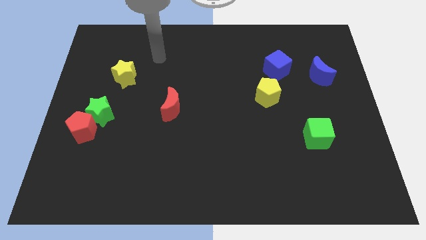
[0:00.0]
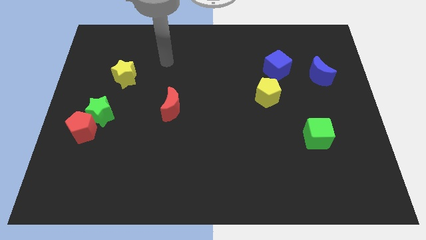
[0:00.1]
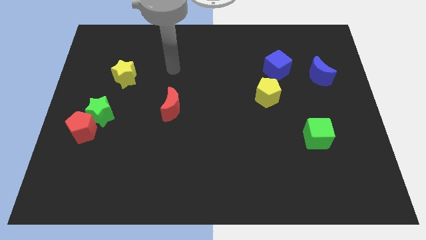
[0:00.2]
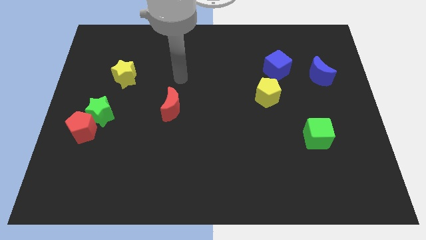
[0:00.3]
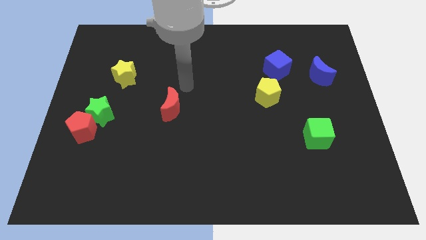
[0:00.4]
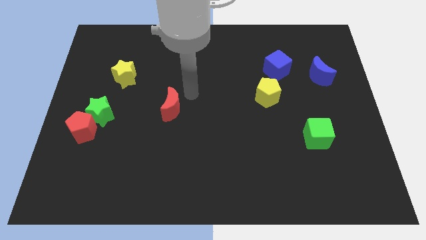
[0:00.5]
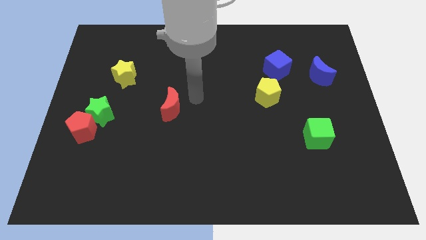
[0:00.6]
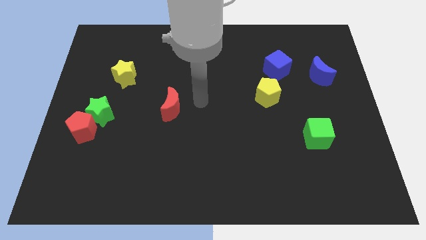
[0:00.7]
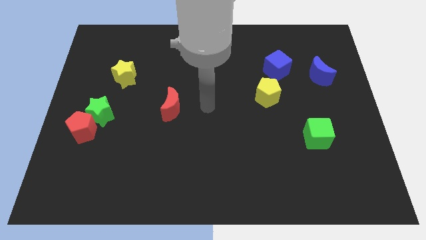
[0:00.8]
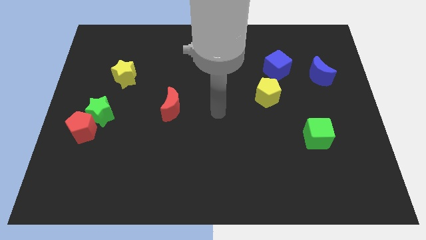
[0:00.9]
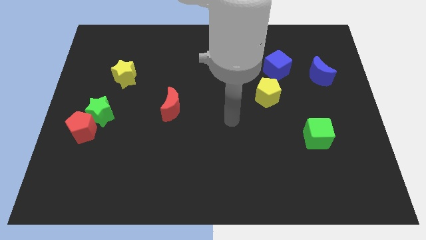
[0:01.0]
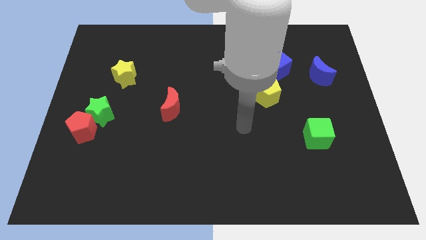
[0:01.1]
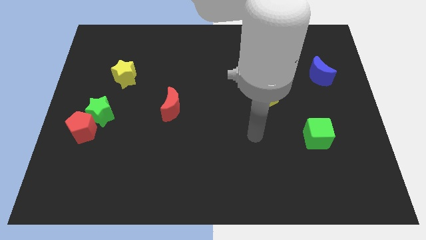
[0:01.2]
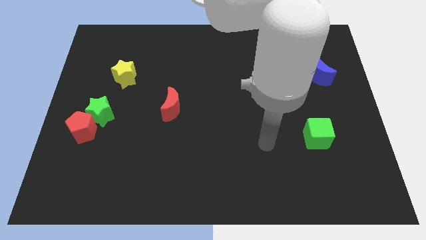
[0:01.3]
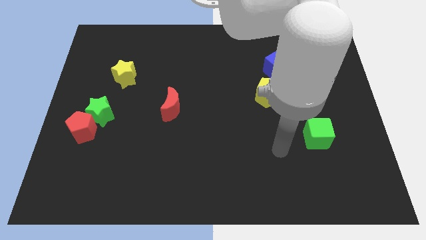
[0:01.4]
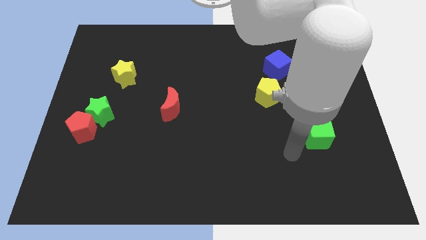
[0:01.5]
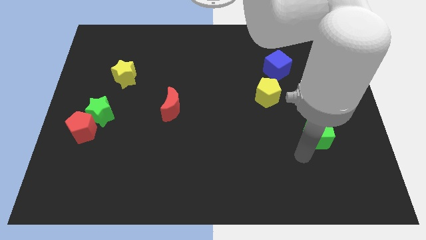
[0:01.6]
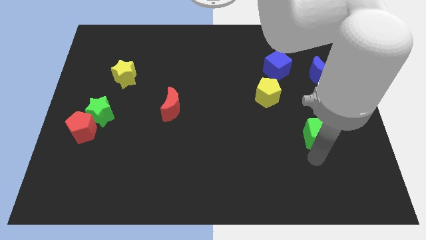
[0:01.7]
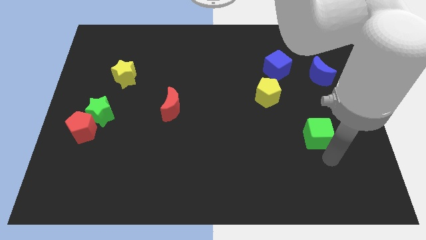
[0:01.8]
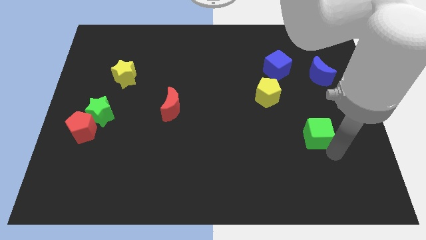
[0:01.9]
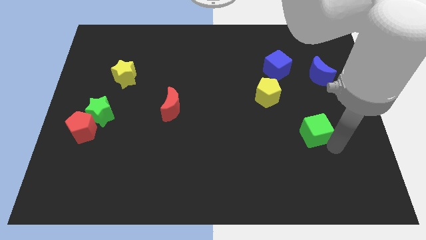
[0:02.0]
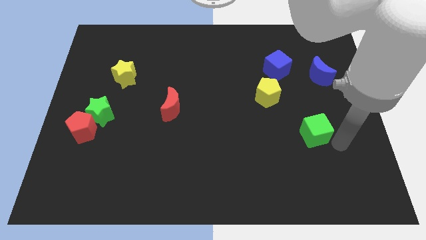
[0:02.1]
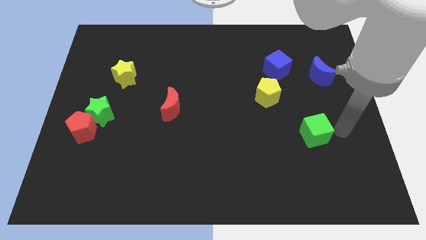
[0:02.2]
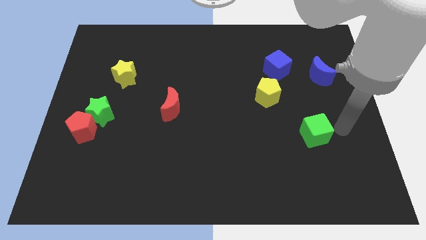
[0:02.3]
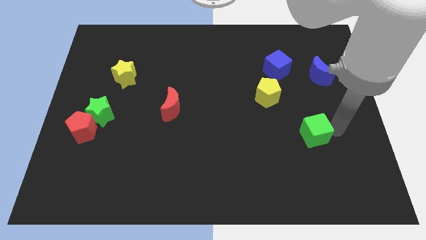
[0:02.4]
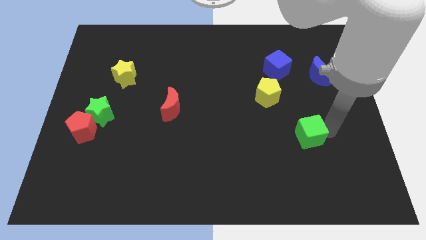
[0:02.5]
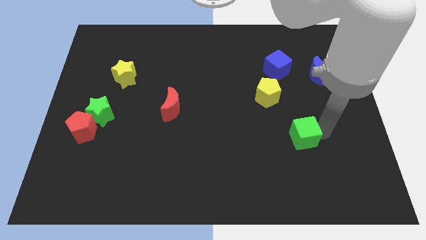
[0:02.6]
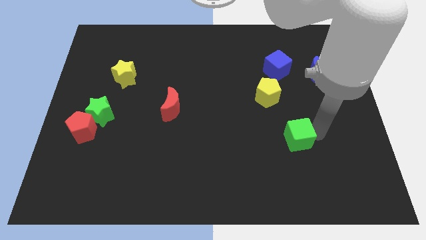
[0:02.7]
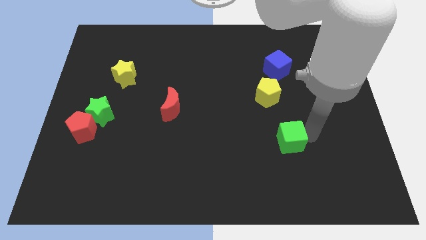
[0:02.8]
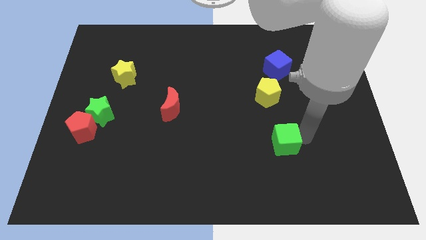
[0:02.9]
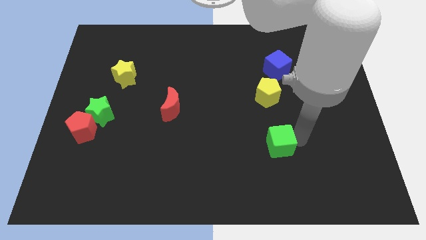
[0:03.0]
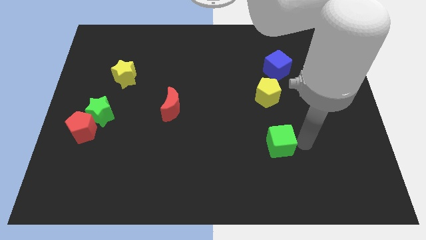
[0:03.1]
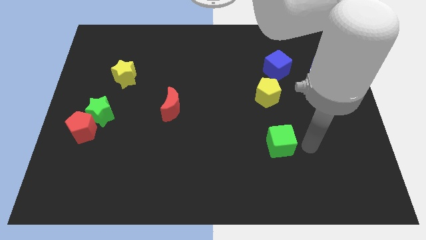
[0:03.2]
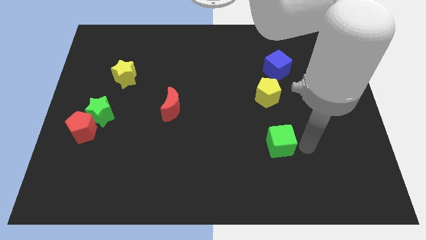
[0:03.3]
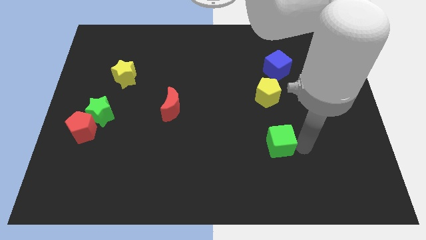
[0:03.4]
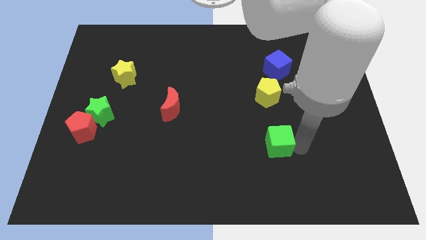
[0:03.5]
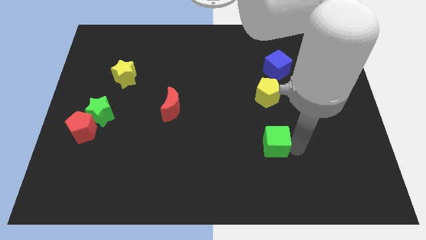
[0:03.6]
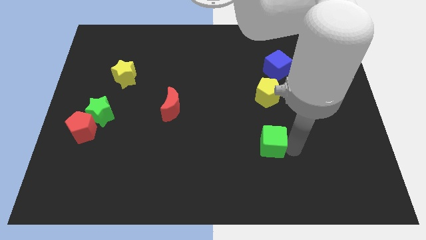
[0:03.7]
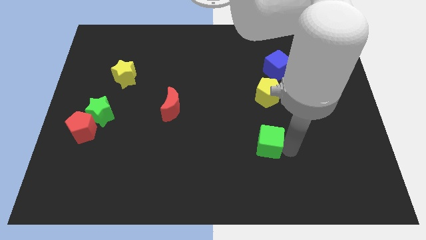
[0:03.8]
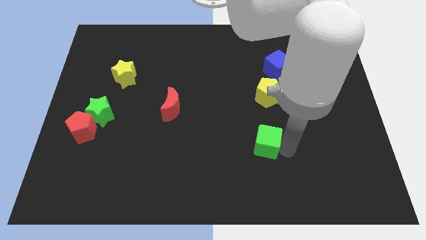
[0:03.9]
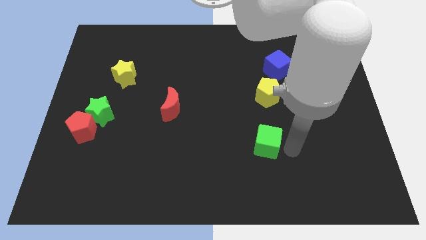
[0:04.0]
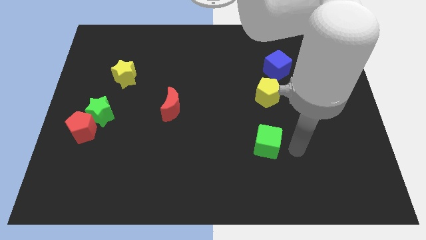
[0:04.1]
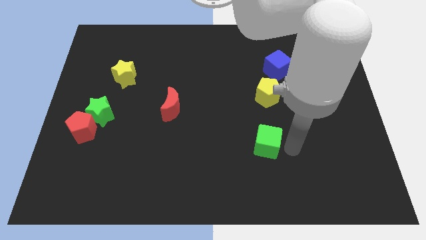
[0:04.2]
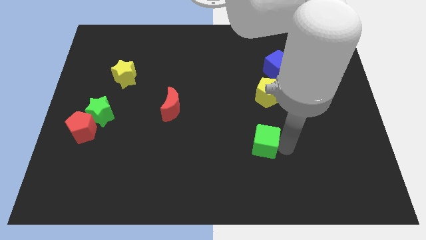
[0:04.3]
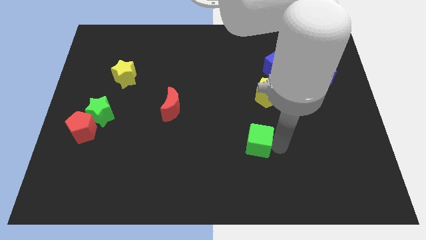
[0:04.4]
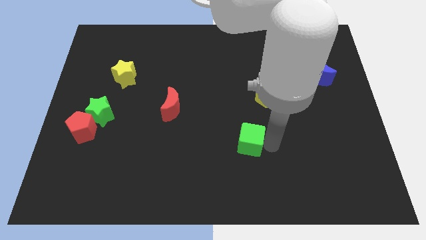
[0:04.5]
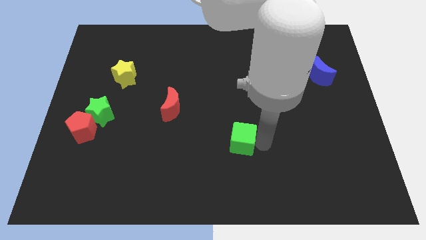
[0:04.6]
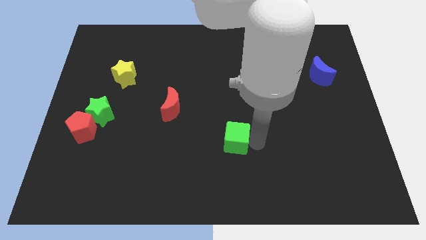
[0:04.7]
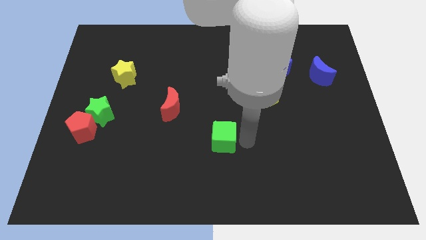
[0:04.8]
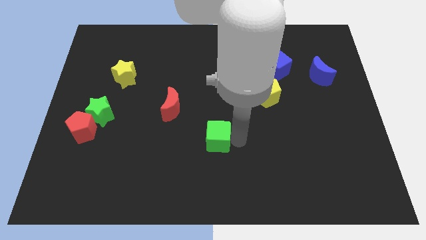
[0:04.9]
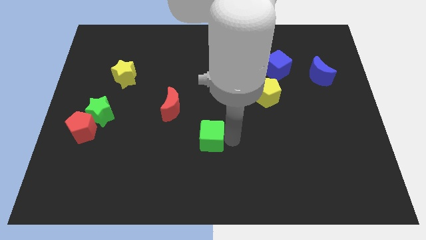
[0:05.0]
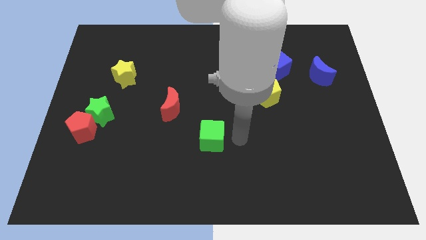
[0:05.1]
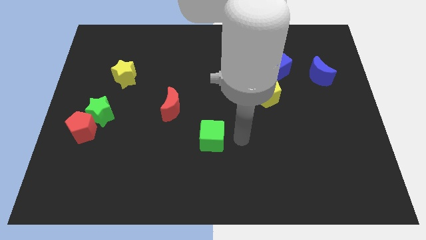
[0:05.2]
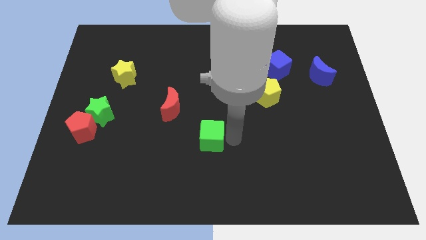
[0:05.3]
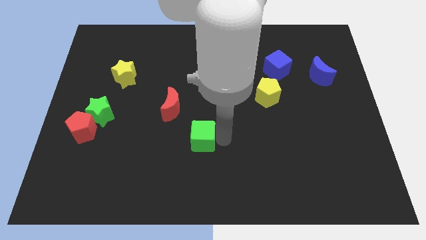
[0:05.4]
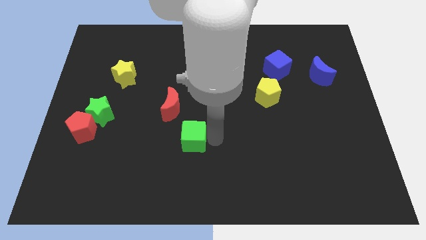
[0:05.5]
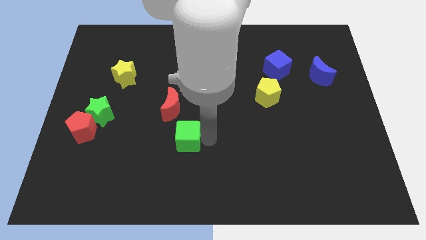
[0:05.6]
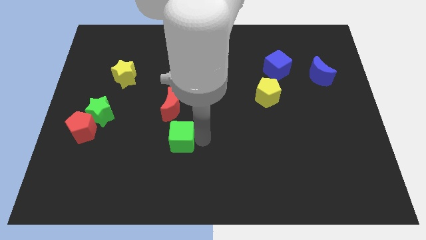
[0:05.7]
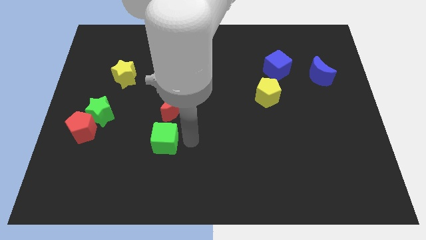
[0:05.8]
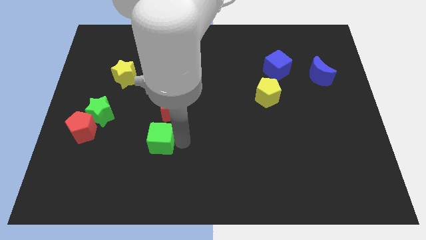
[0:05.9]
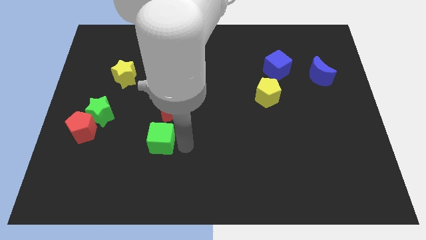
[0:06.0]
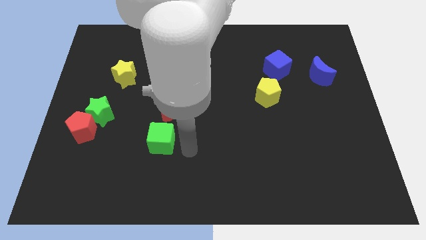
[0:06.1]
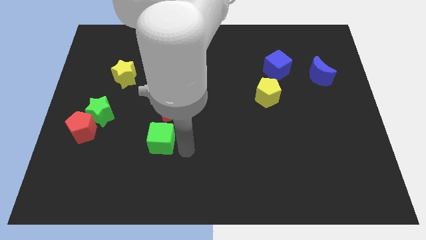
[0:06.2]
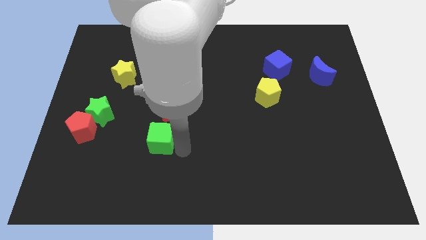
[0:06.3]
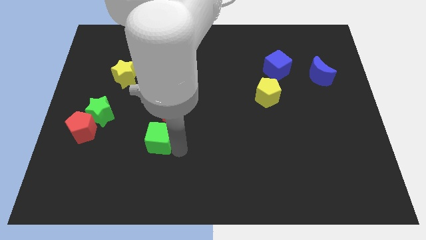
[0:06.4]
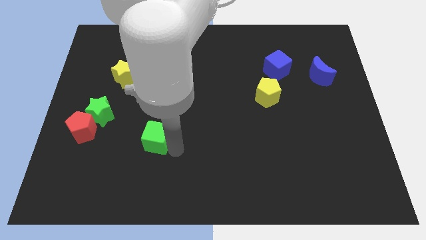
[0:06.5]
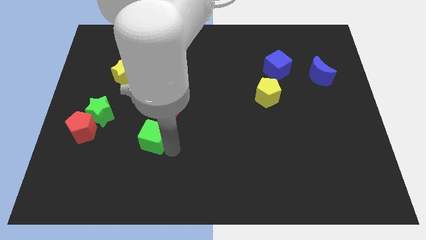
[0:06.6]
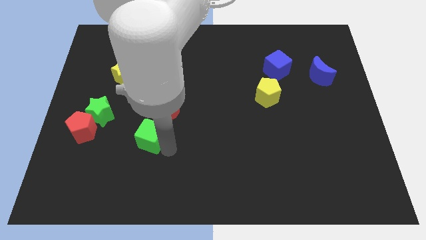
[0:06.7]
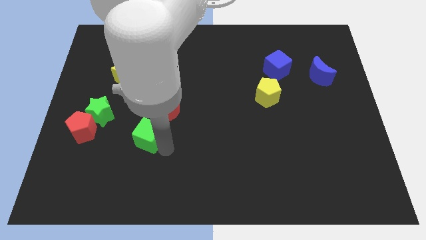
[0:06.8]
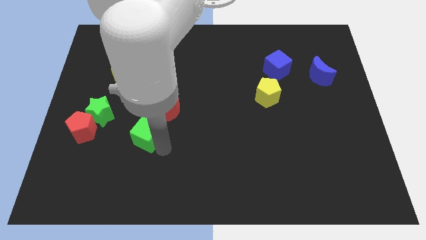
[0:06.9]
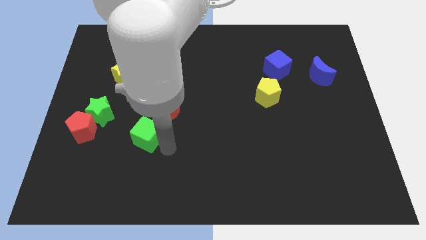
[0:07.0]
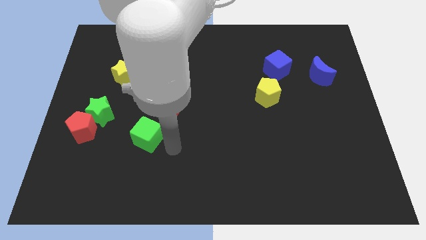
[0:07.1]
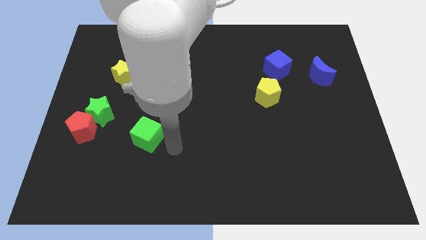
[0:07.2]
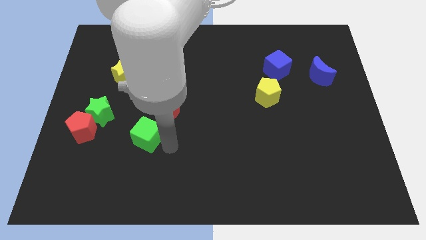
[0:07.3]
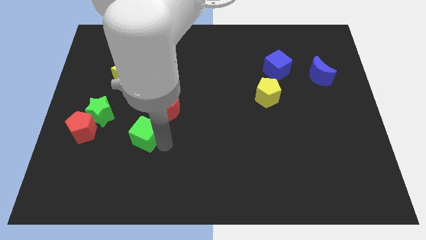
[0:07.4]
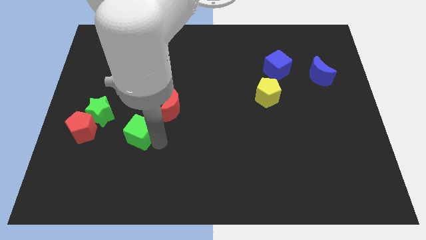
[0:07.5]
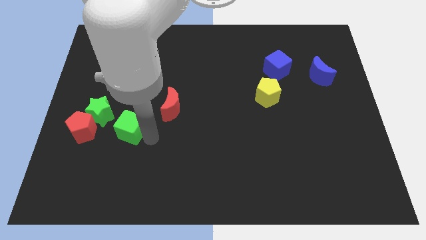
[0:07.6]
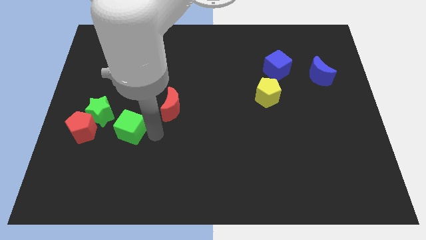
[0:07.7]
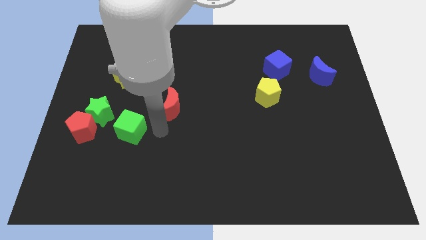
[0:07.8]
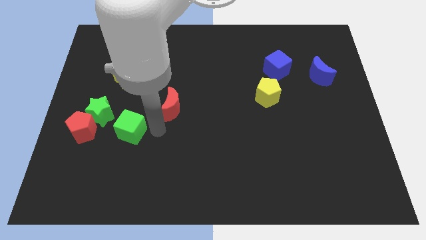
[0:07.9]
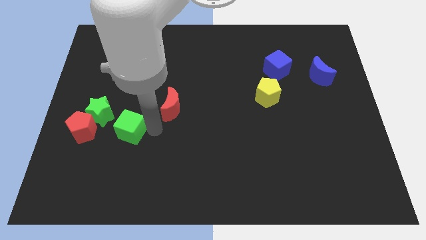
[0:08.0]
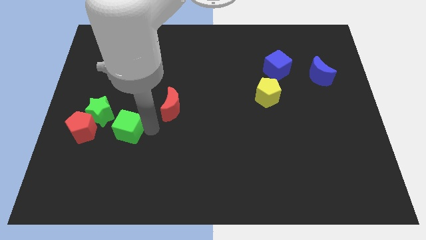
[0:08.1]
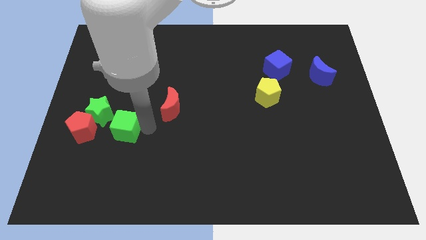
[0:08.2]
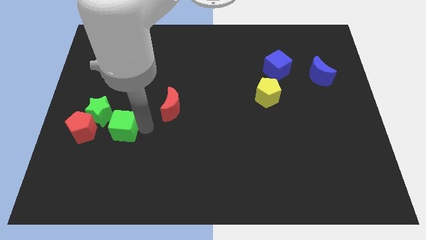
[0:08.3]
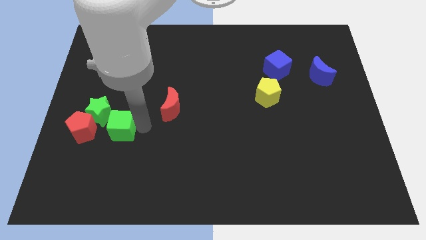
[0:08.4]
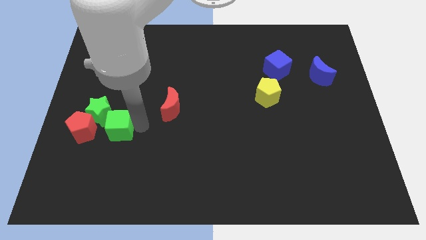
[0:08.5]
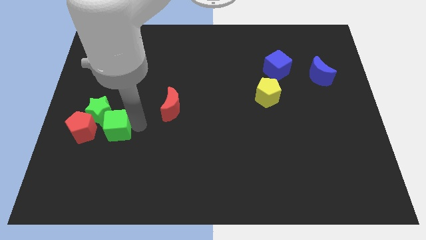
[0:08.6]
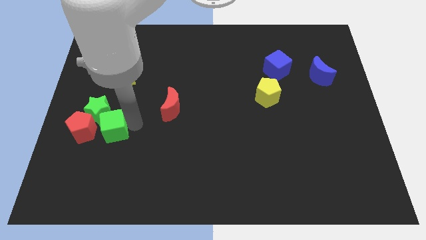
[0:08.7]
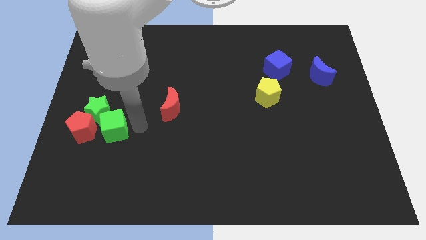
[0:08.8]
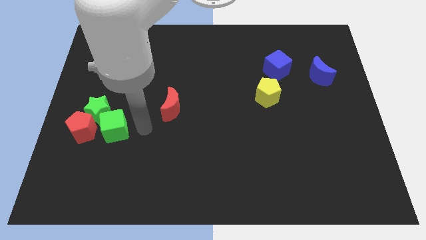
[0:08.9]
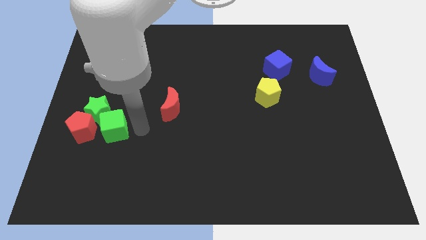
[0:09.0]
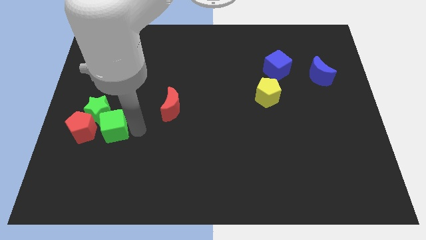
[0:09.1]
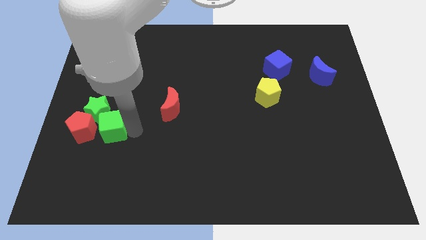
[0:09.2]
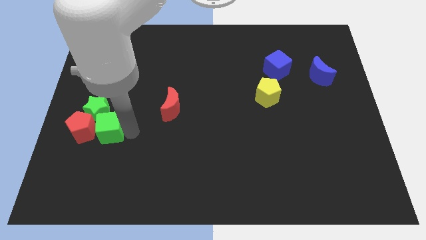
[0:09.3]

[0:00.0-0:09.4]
move the green cube close to the red pentagon
